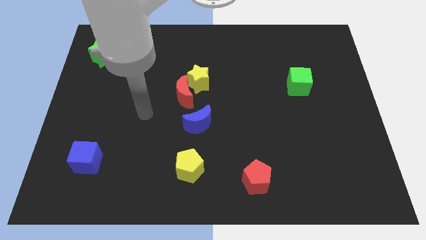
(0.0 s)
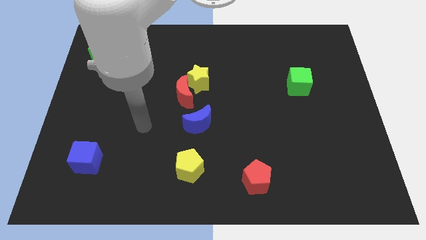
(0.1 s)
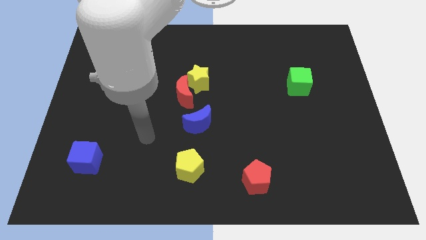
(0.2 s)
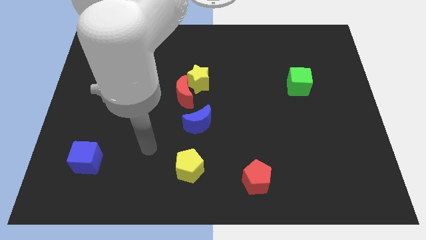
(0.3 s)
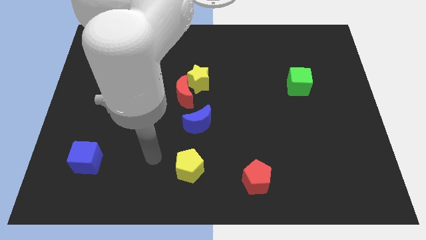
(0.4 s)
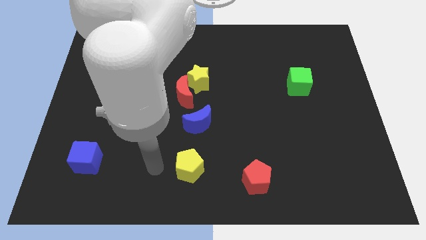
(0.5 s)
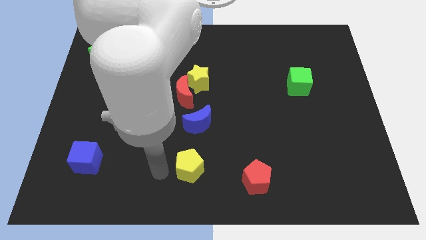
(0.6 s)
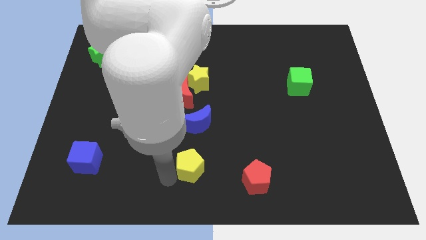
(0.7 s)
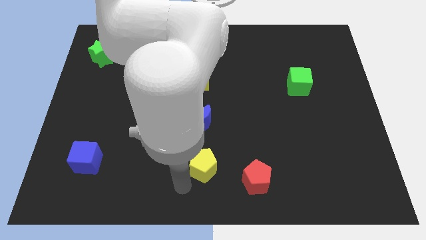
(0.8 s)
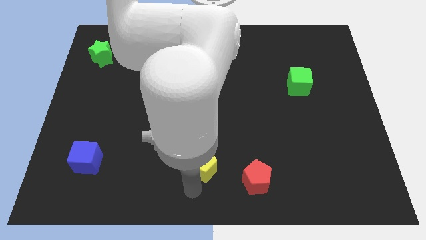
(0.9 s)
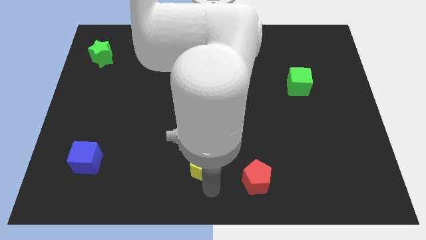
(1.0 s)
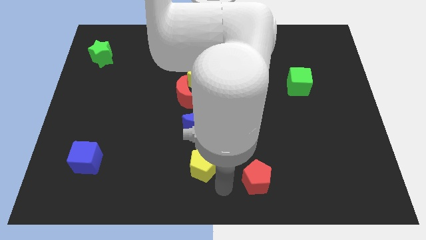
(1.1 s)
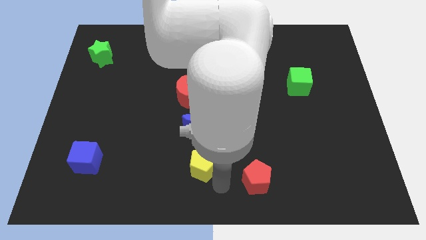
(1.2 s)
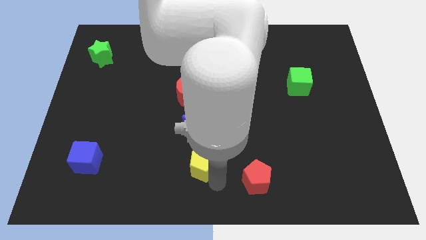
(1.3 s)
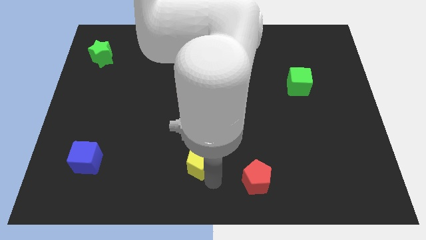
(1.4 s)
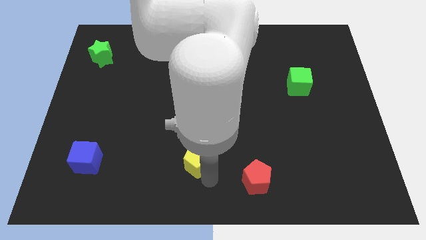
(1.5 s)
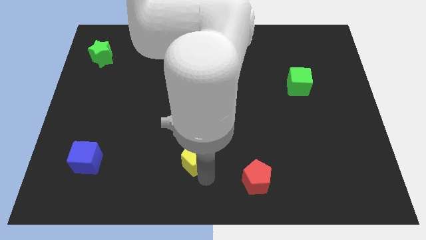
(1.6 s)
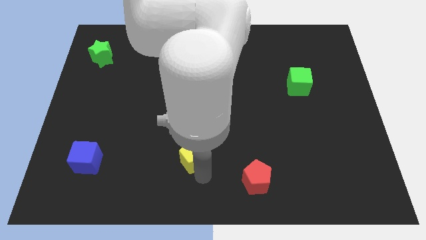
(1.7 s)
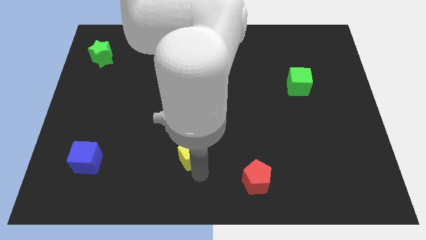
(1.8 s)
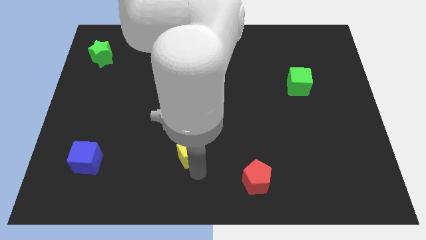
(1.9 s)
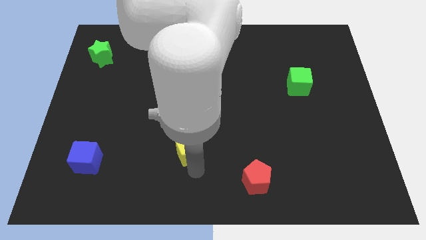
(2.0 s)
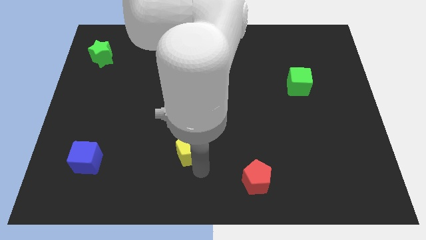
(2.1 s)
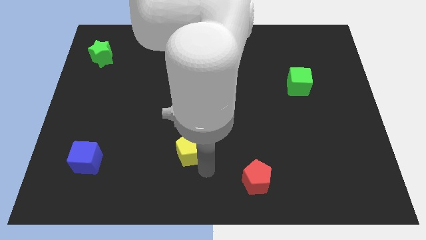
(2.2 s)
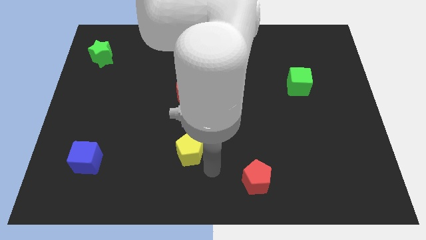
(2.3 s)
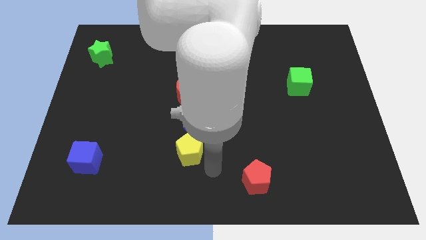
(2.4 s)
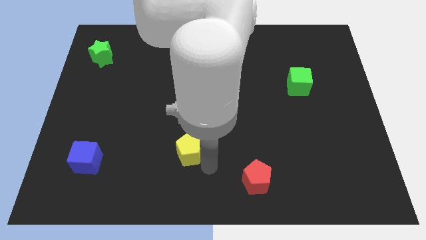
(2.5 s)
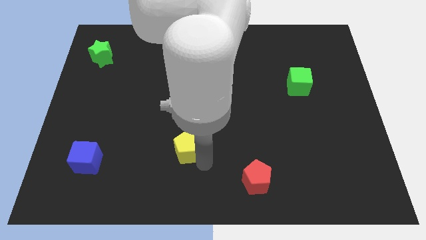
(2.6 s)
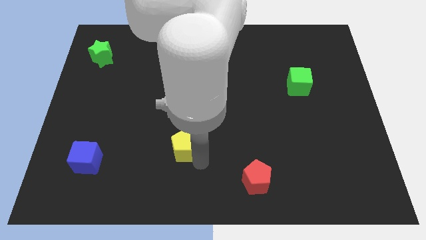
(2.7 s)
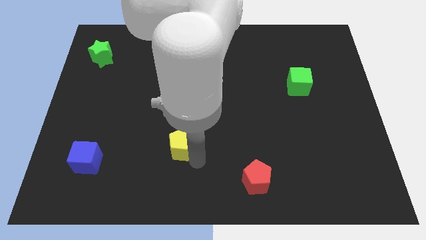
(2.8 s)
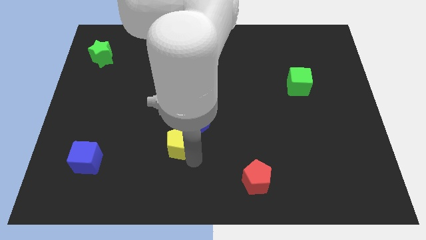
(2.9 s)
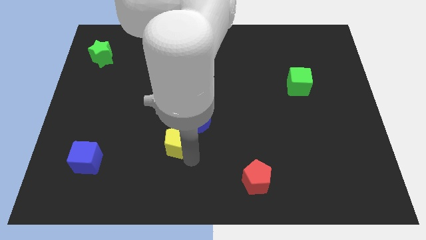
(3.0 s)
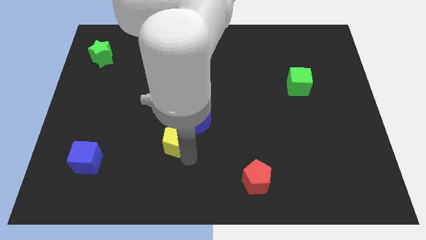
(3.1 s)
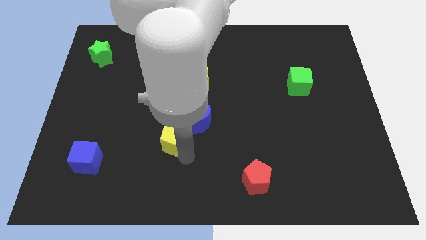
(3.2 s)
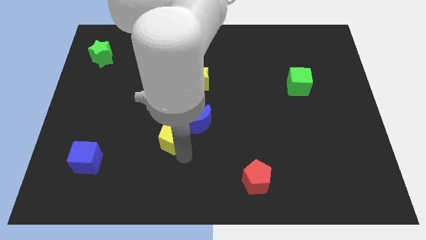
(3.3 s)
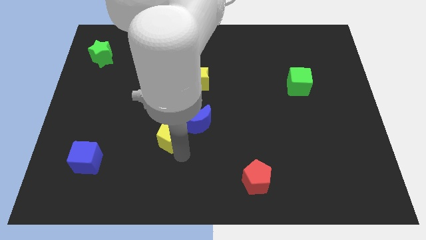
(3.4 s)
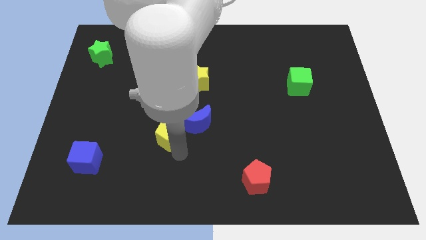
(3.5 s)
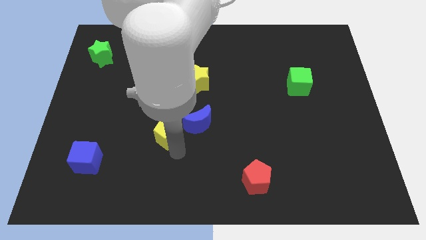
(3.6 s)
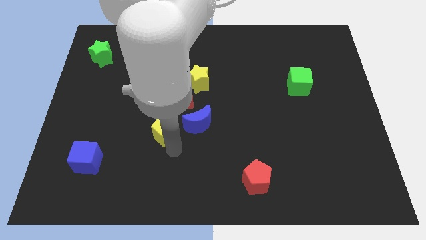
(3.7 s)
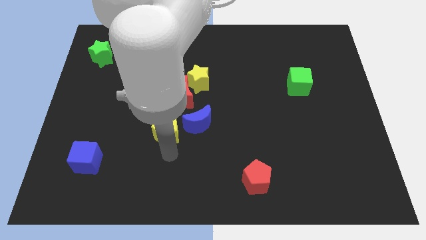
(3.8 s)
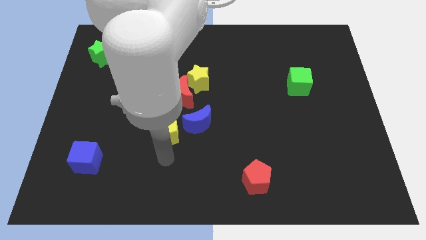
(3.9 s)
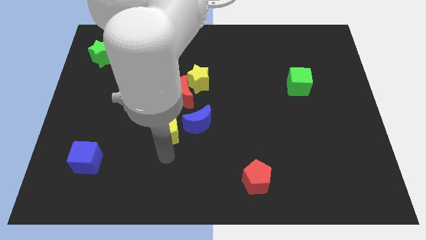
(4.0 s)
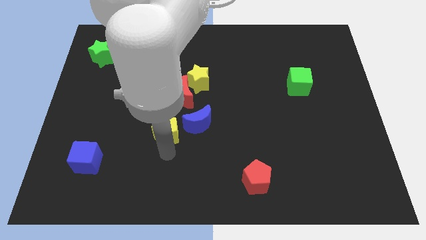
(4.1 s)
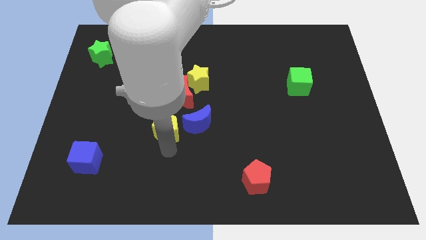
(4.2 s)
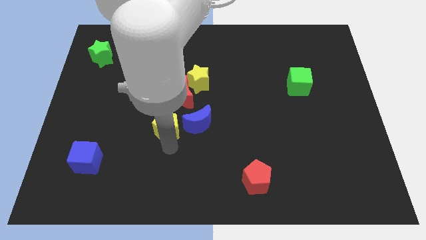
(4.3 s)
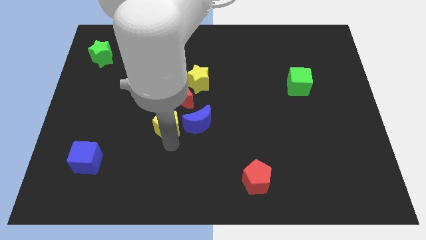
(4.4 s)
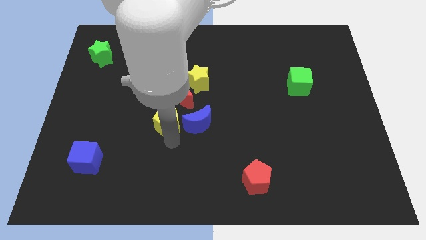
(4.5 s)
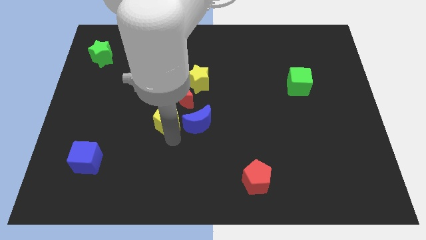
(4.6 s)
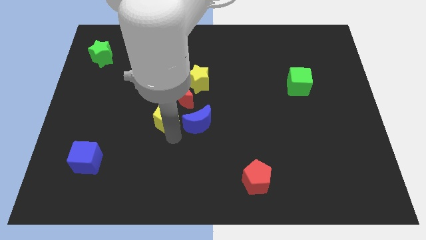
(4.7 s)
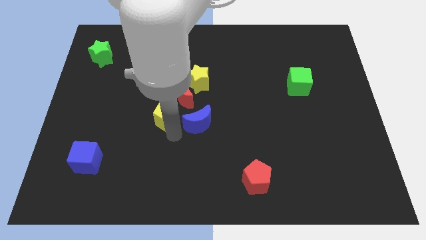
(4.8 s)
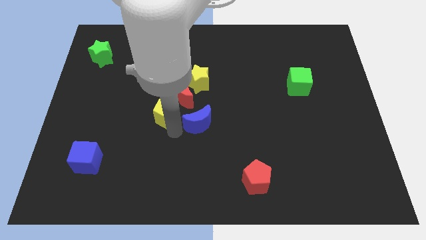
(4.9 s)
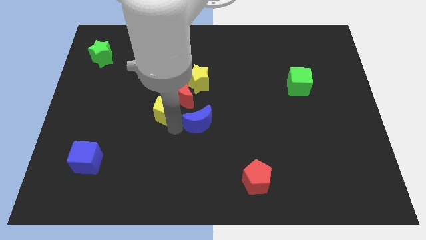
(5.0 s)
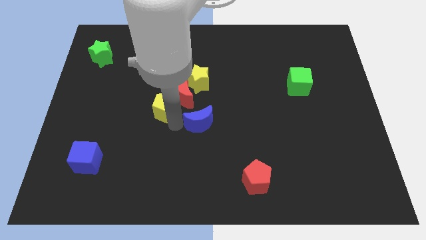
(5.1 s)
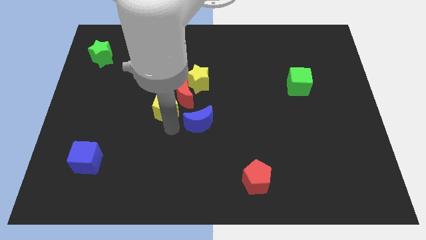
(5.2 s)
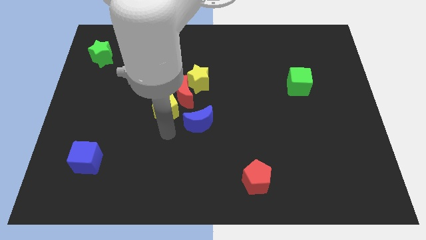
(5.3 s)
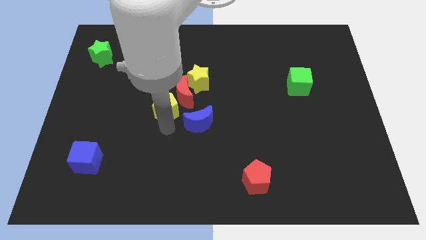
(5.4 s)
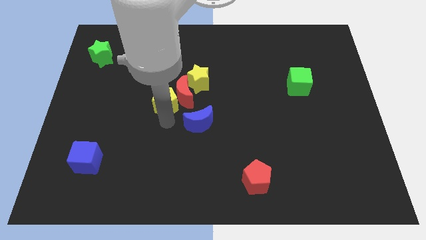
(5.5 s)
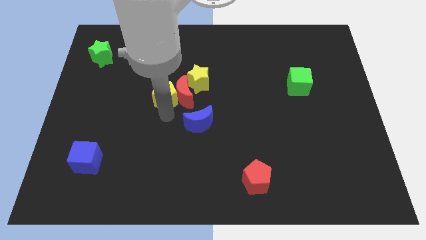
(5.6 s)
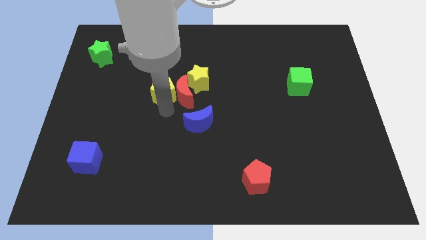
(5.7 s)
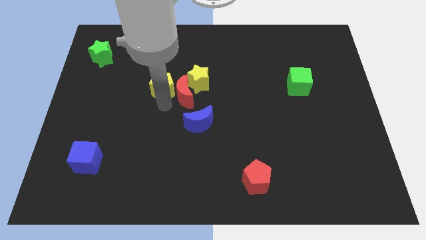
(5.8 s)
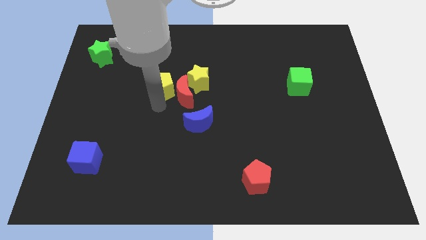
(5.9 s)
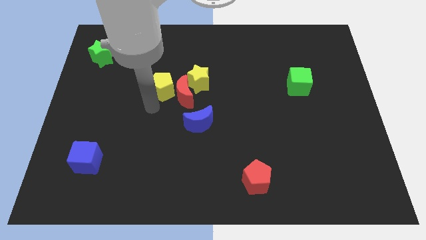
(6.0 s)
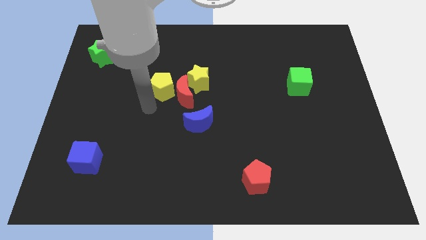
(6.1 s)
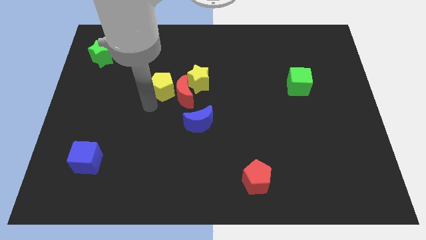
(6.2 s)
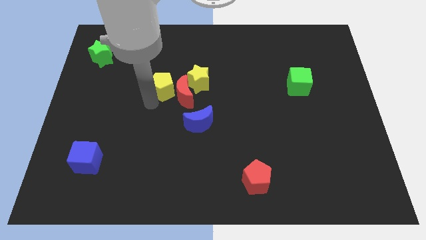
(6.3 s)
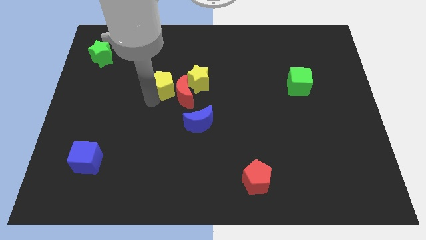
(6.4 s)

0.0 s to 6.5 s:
slide the yellow pentagon up

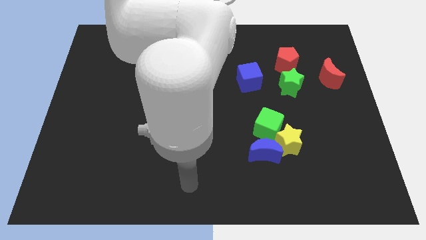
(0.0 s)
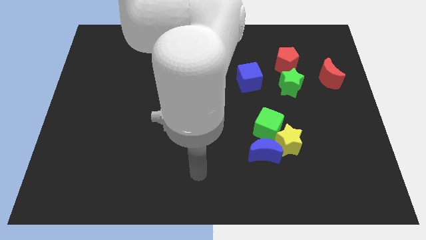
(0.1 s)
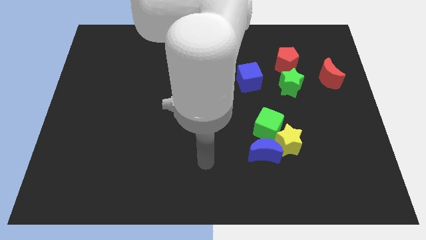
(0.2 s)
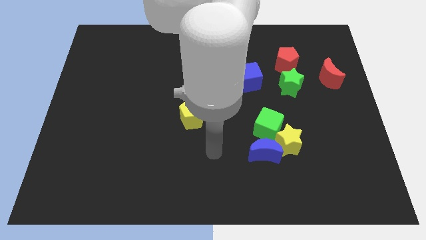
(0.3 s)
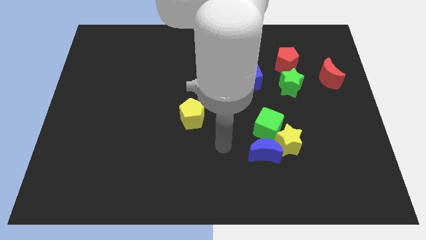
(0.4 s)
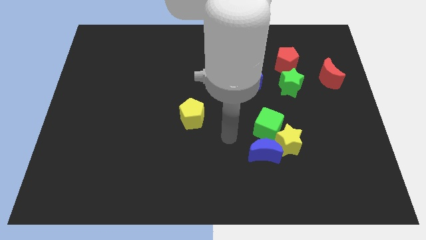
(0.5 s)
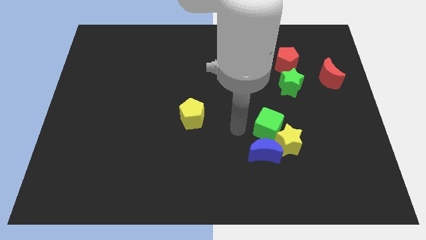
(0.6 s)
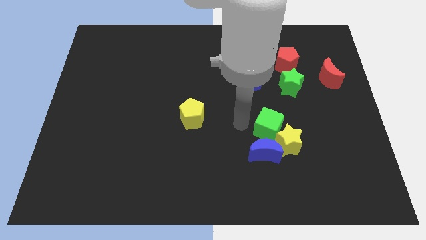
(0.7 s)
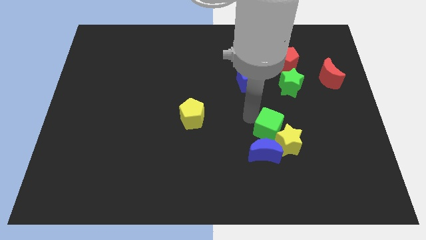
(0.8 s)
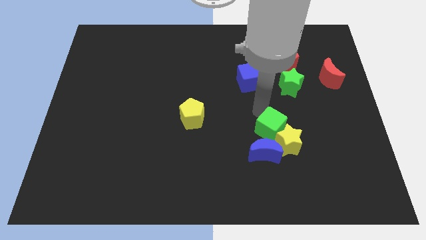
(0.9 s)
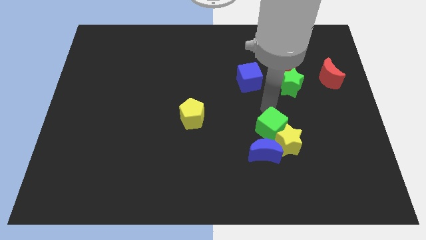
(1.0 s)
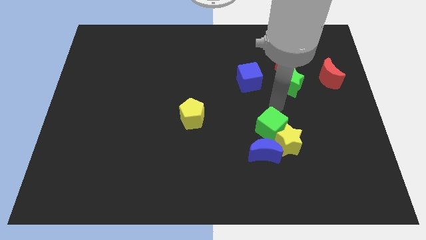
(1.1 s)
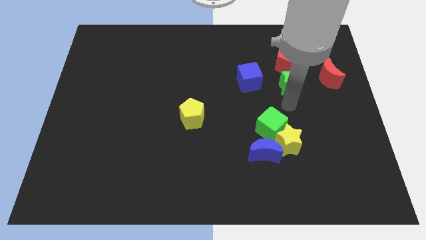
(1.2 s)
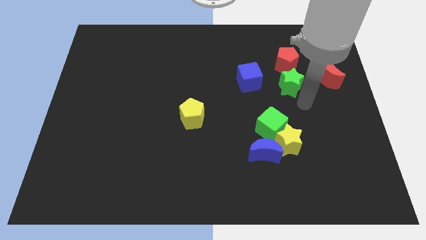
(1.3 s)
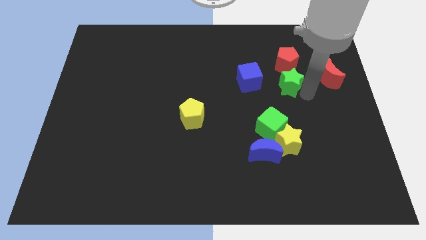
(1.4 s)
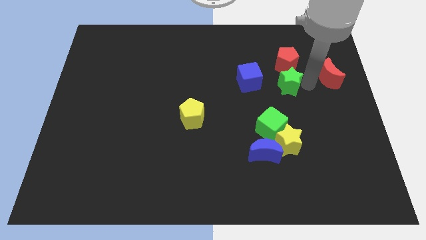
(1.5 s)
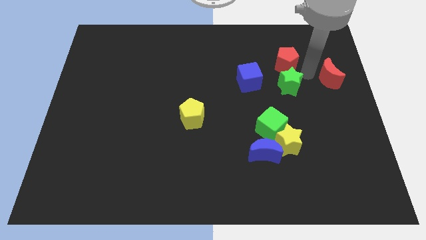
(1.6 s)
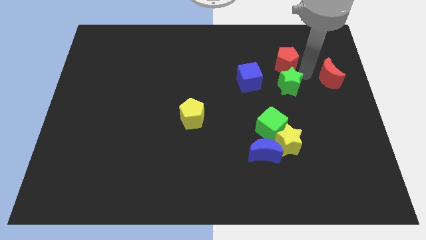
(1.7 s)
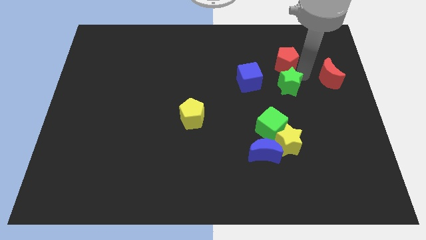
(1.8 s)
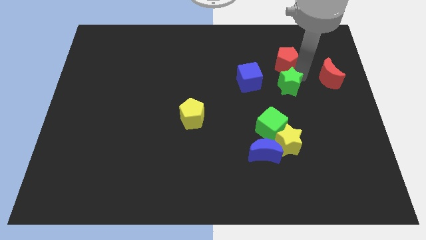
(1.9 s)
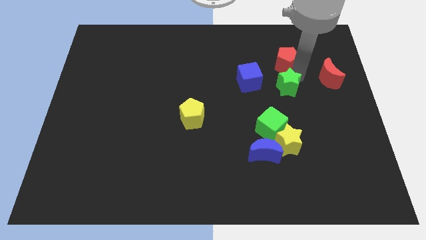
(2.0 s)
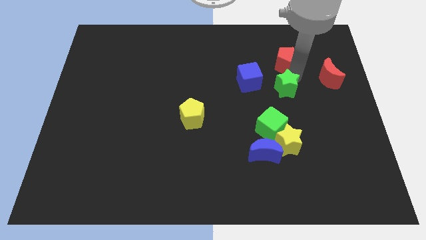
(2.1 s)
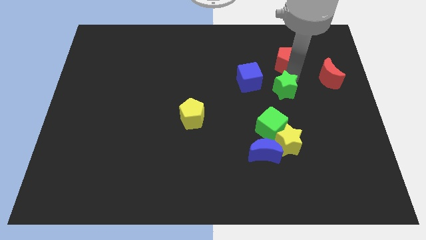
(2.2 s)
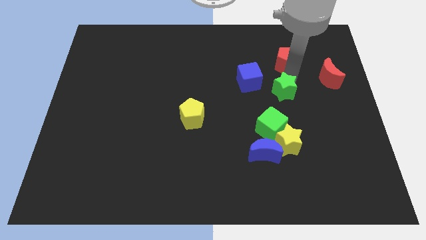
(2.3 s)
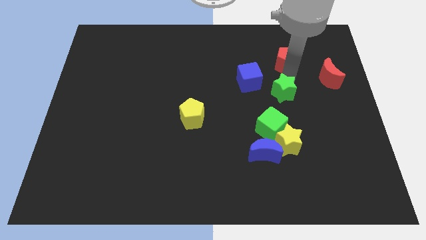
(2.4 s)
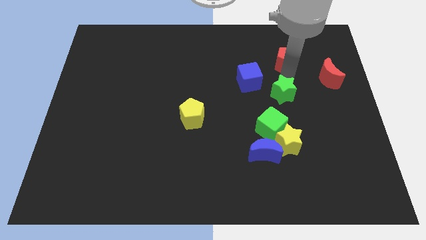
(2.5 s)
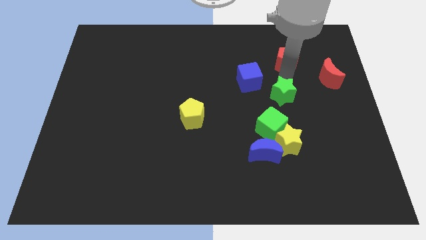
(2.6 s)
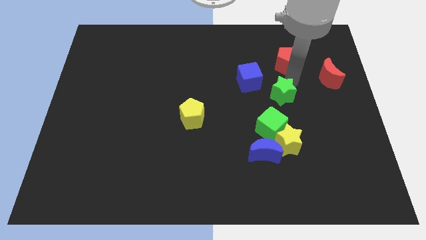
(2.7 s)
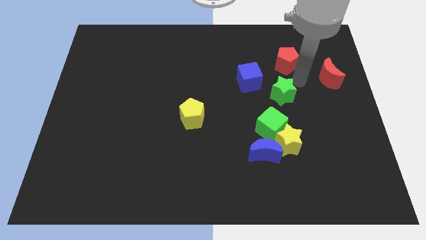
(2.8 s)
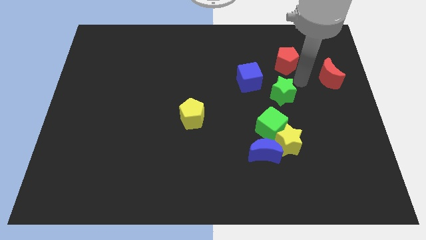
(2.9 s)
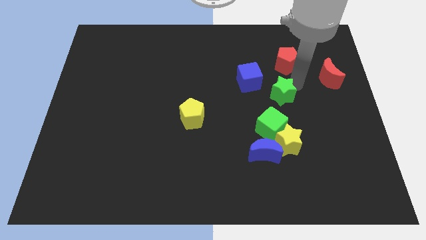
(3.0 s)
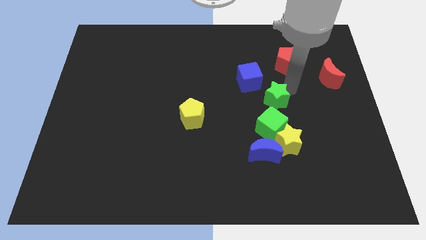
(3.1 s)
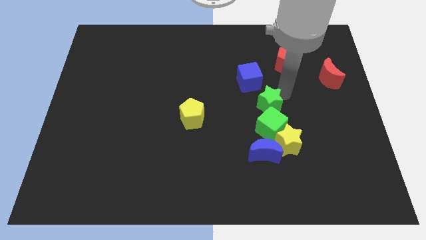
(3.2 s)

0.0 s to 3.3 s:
slide the green star a bit downwards and left
